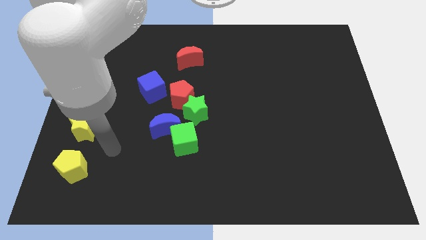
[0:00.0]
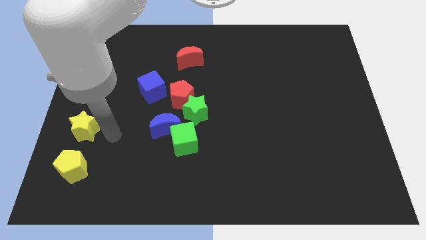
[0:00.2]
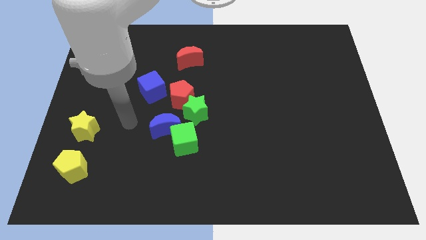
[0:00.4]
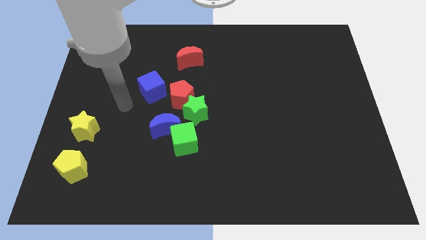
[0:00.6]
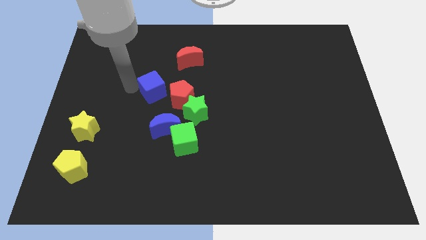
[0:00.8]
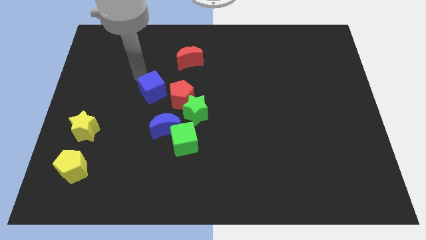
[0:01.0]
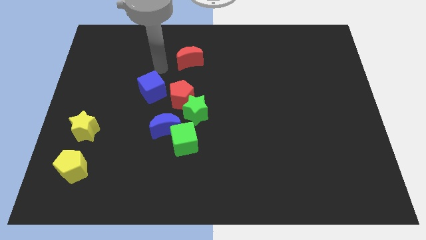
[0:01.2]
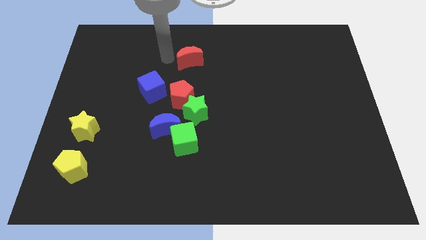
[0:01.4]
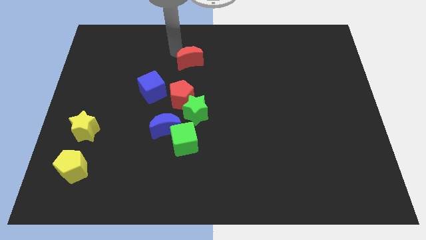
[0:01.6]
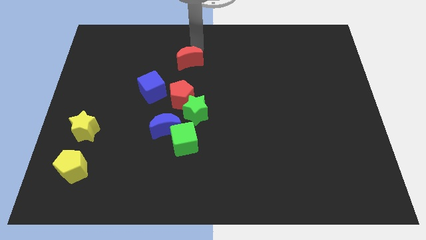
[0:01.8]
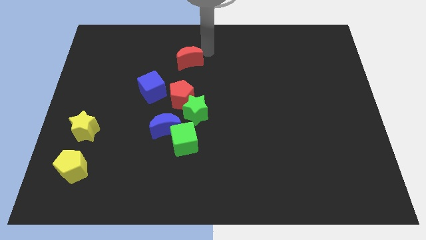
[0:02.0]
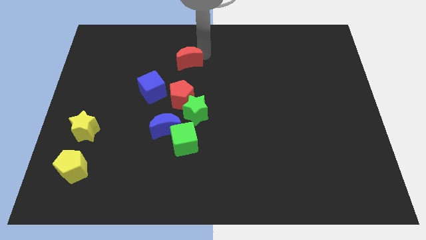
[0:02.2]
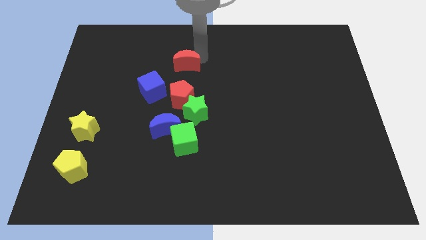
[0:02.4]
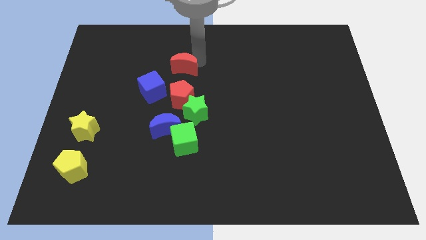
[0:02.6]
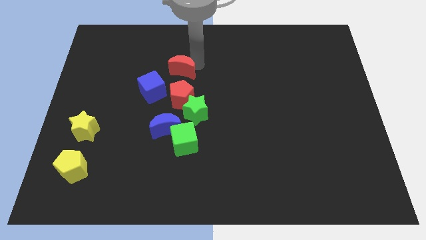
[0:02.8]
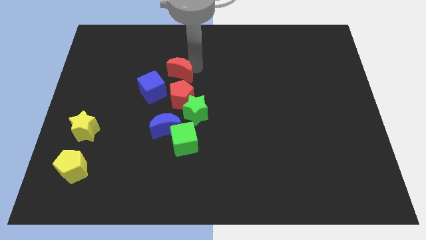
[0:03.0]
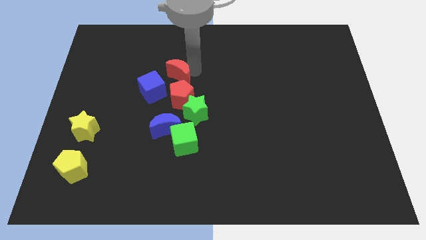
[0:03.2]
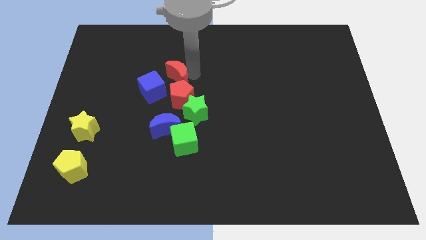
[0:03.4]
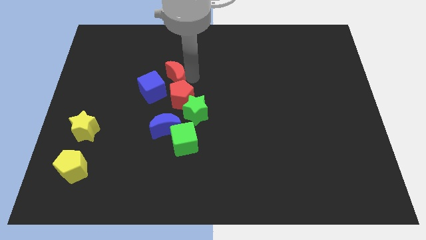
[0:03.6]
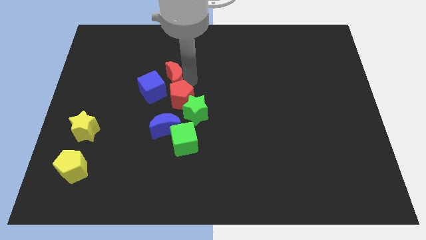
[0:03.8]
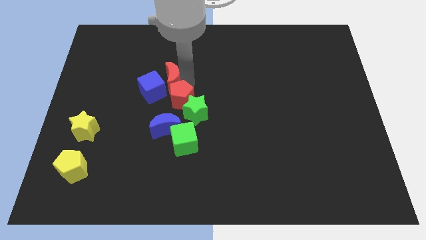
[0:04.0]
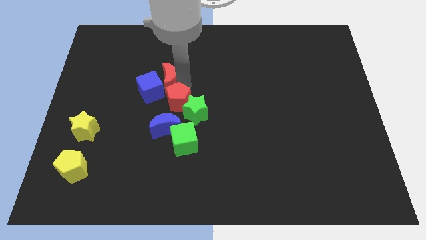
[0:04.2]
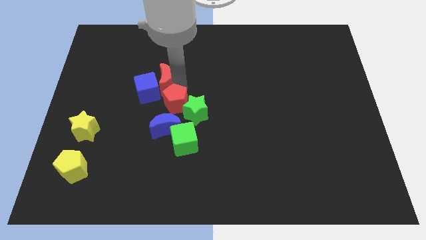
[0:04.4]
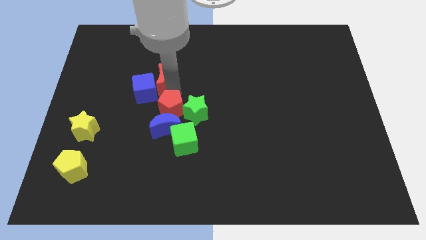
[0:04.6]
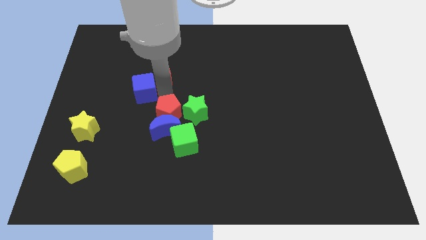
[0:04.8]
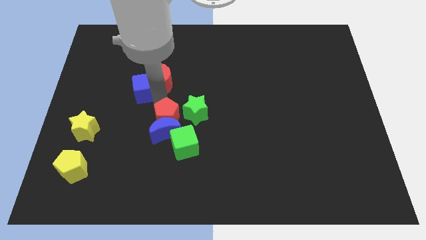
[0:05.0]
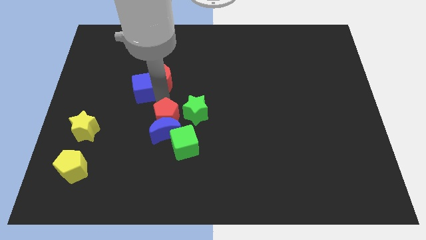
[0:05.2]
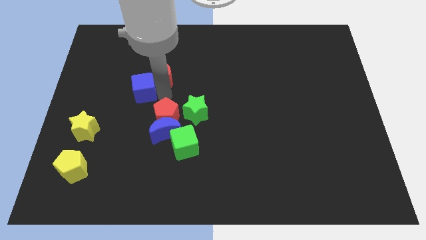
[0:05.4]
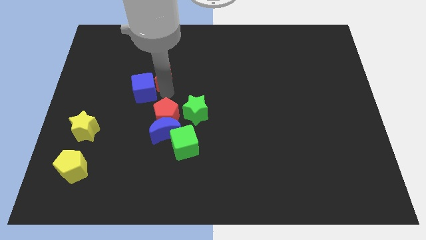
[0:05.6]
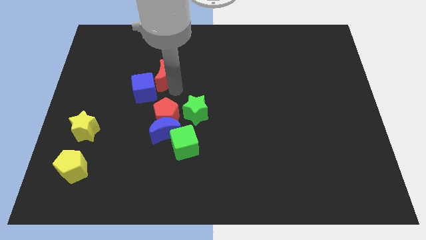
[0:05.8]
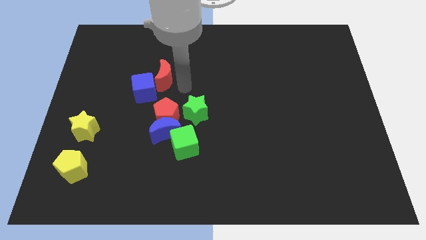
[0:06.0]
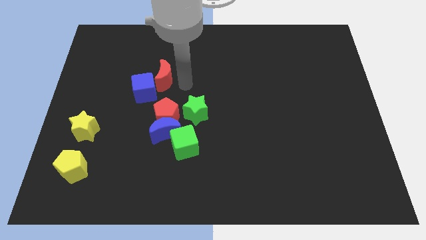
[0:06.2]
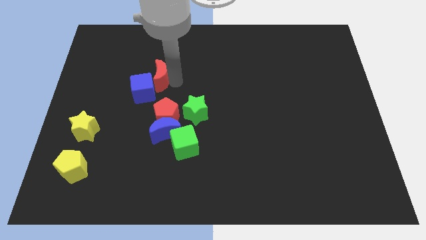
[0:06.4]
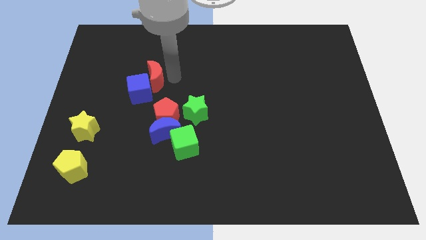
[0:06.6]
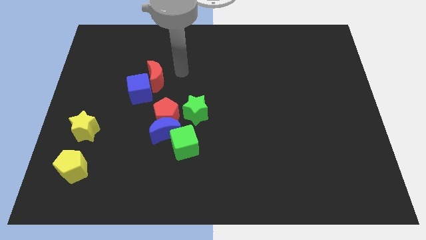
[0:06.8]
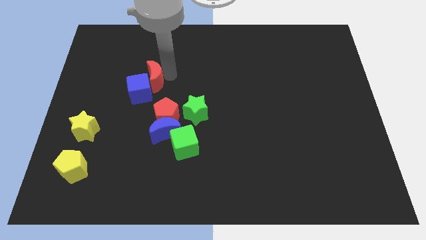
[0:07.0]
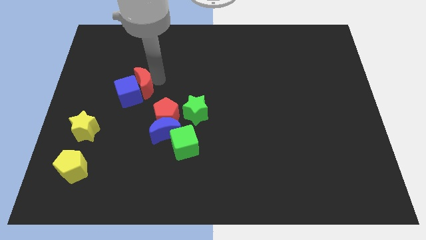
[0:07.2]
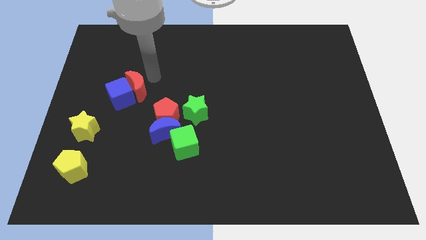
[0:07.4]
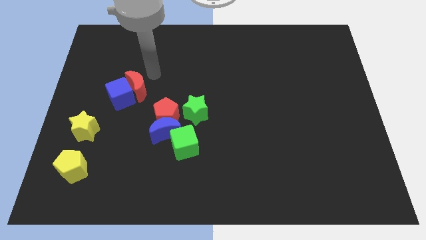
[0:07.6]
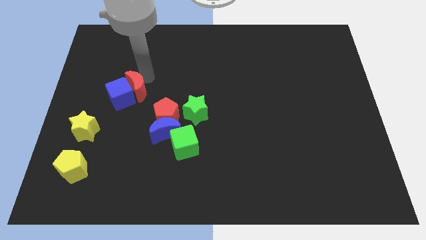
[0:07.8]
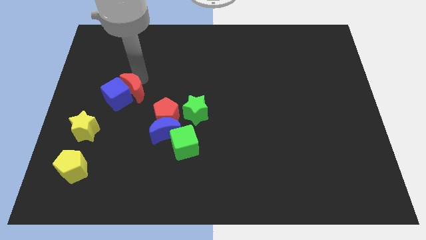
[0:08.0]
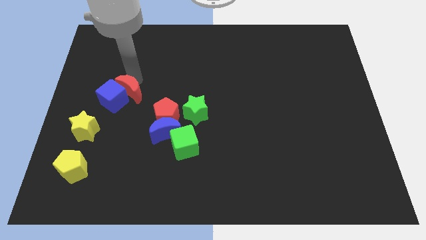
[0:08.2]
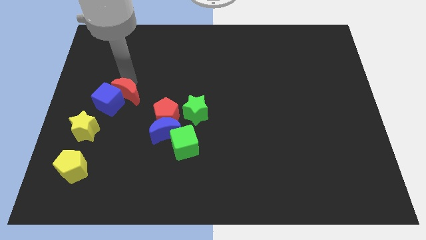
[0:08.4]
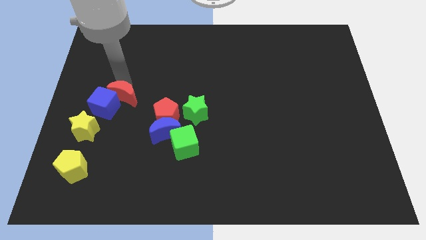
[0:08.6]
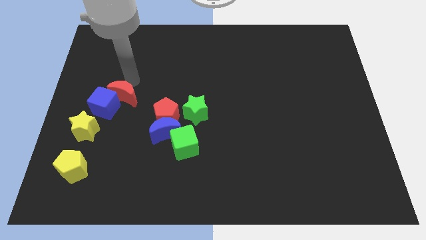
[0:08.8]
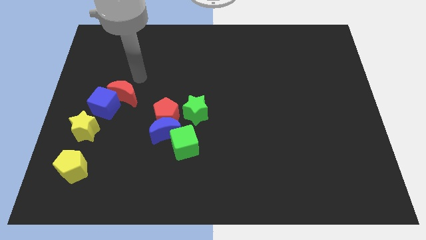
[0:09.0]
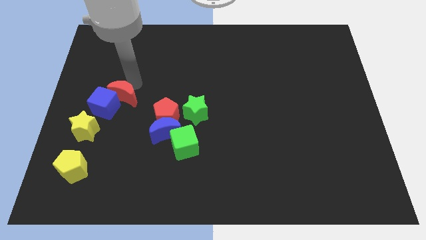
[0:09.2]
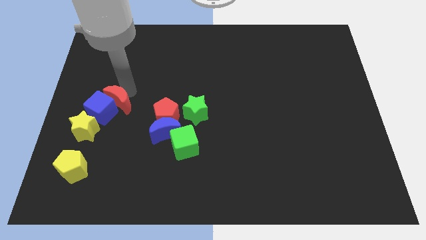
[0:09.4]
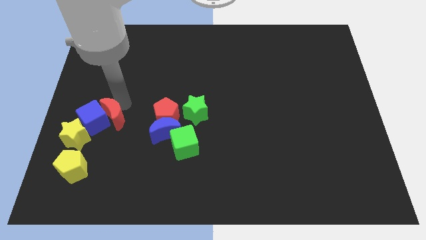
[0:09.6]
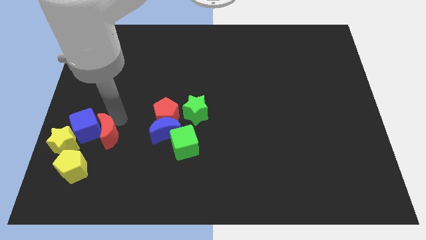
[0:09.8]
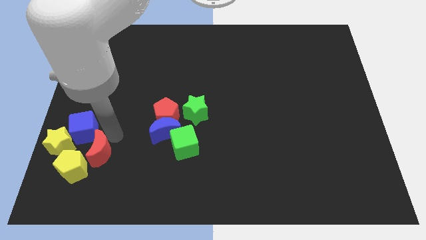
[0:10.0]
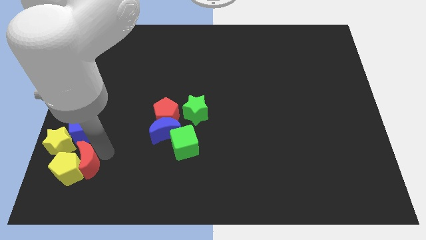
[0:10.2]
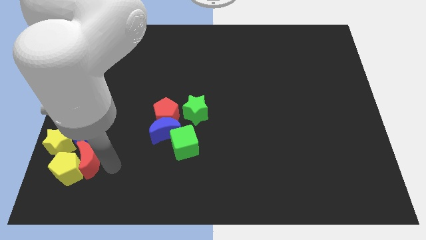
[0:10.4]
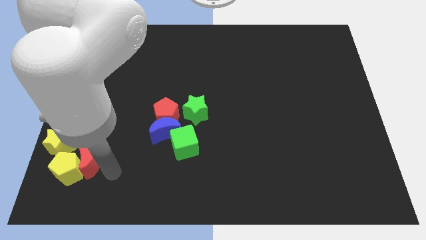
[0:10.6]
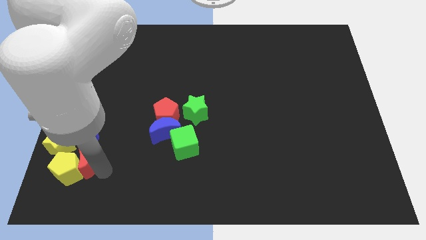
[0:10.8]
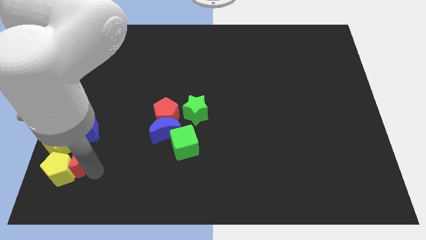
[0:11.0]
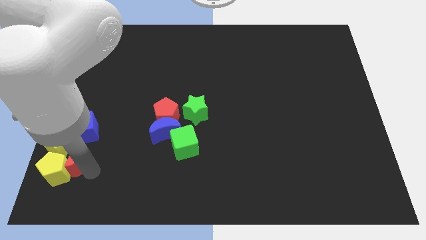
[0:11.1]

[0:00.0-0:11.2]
push the red moon next to the yellow star

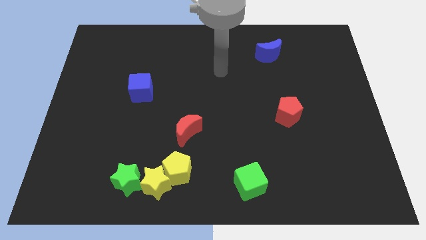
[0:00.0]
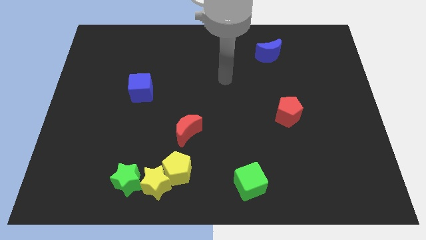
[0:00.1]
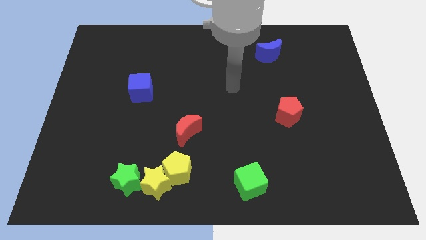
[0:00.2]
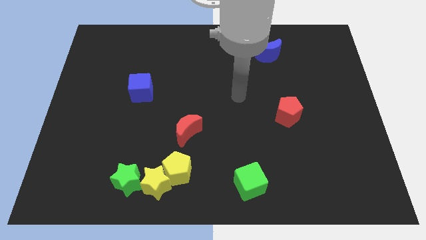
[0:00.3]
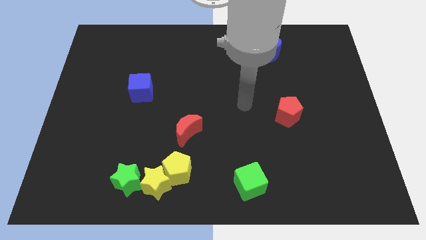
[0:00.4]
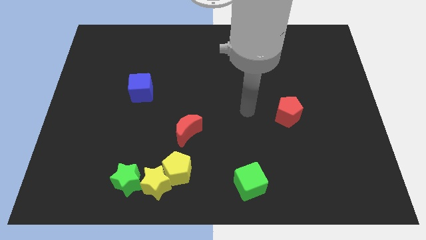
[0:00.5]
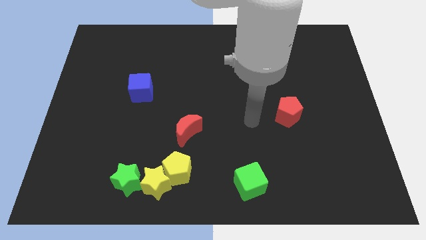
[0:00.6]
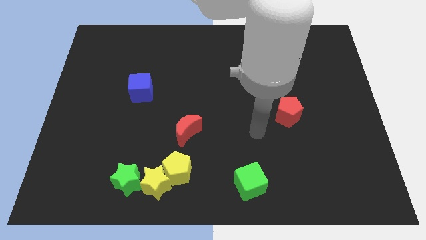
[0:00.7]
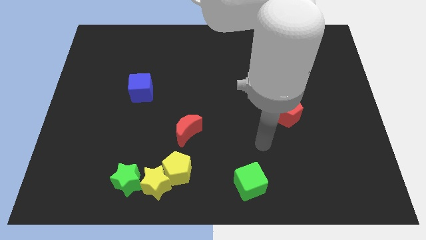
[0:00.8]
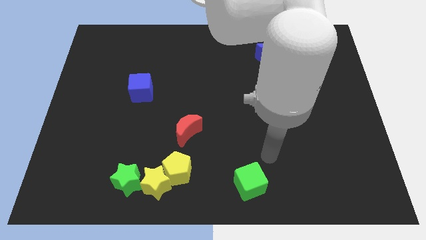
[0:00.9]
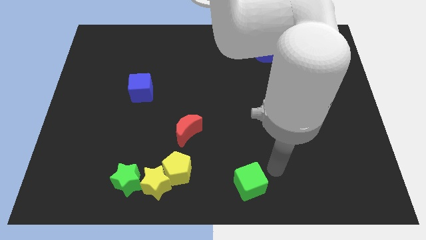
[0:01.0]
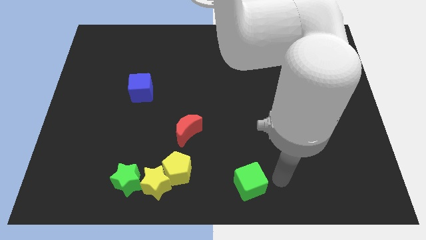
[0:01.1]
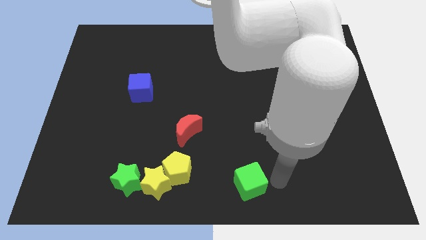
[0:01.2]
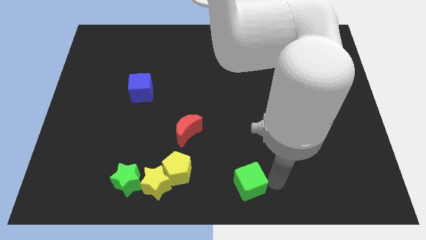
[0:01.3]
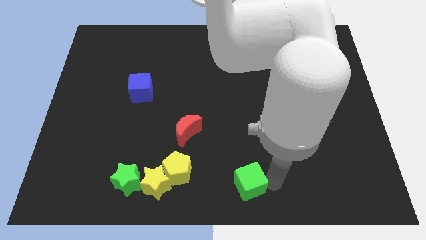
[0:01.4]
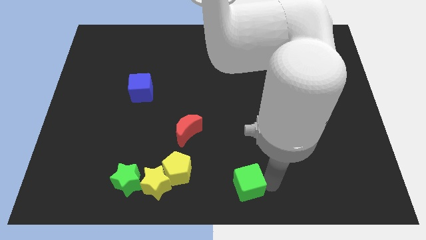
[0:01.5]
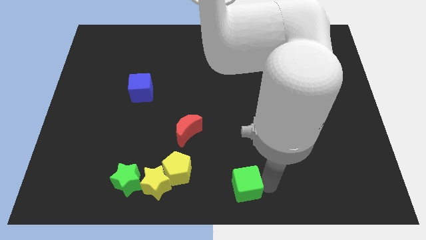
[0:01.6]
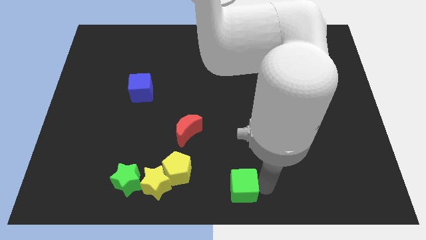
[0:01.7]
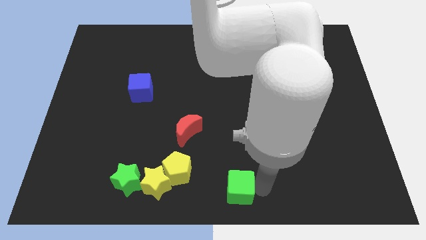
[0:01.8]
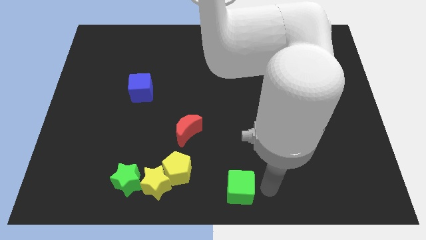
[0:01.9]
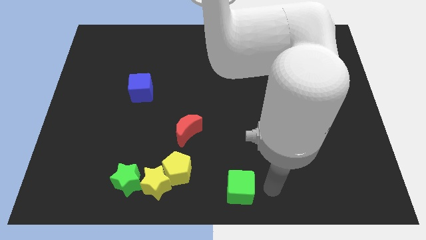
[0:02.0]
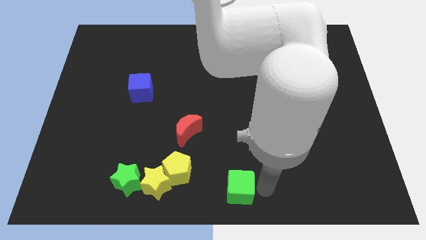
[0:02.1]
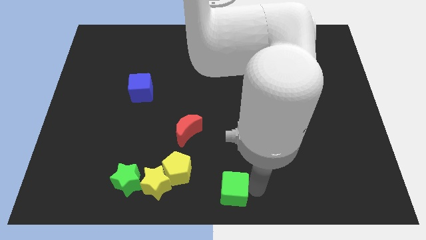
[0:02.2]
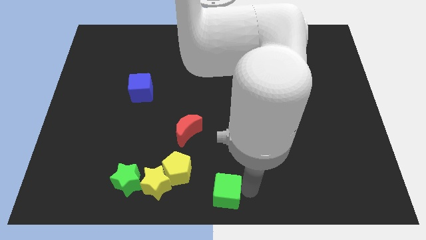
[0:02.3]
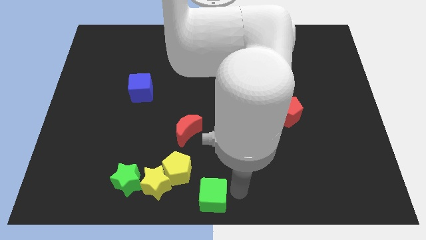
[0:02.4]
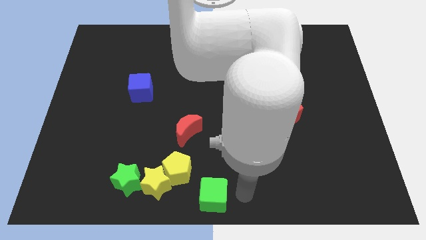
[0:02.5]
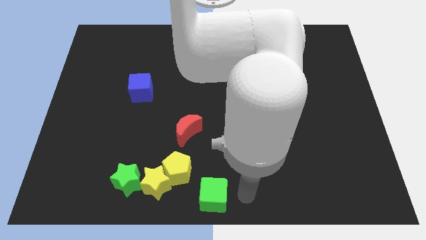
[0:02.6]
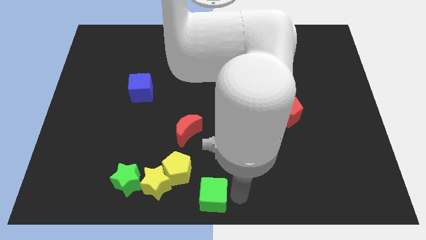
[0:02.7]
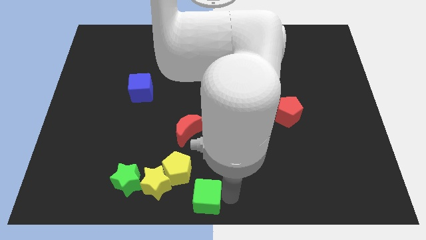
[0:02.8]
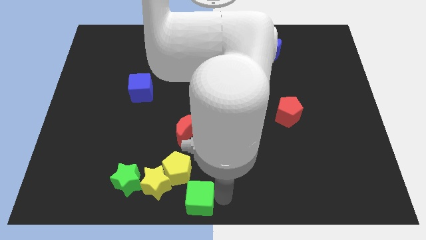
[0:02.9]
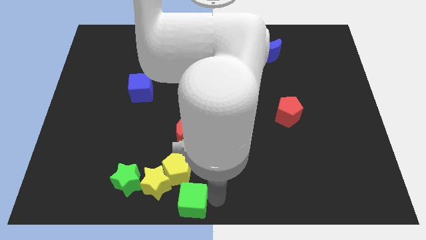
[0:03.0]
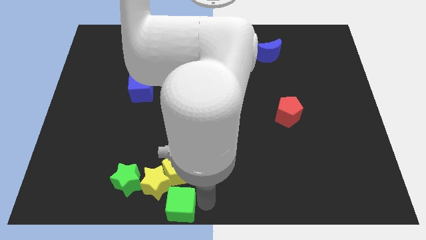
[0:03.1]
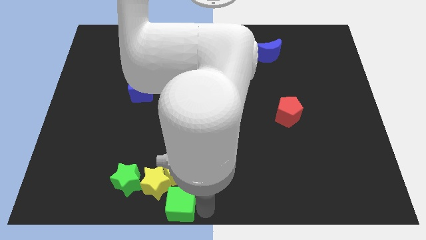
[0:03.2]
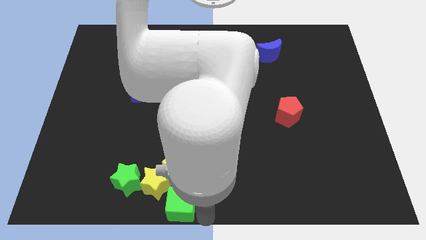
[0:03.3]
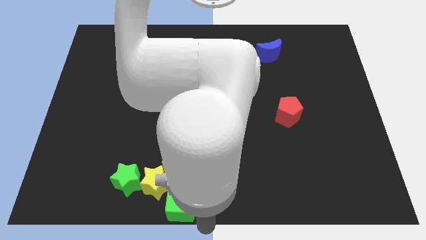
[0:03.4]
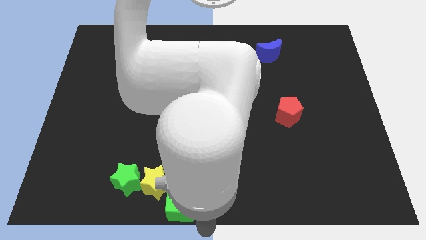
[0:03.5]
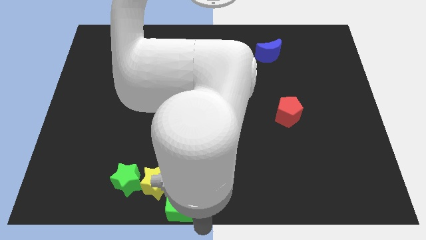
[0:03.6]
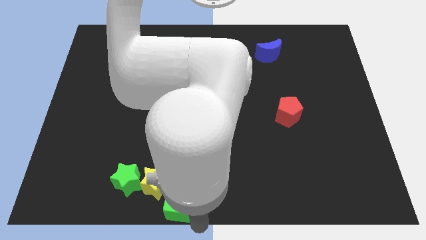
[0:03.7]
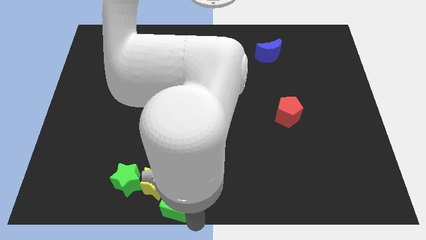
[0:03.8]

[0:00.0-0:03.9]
push the green cube close to the yellow star
